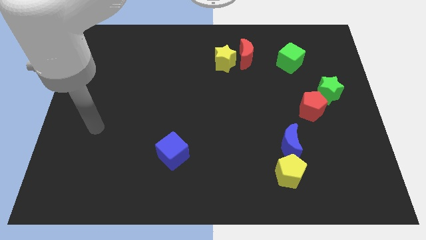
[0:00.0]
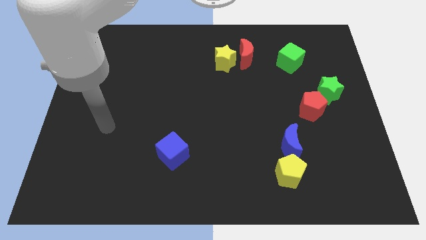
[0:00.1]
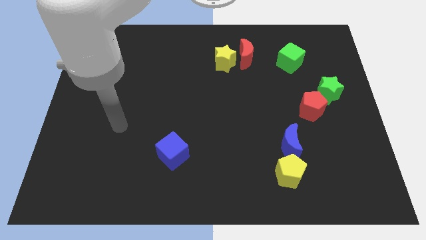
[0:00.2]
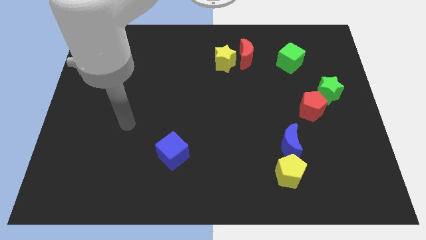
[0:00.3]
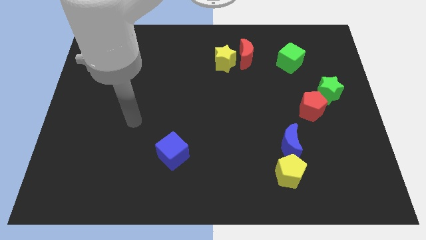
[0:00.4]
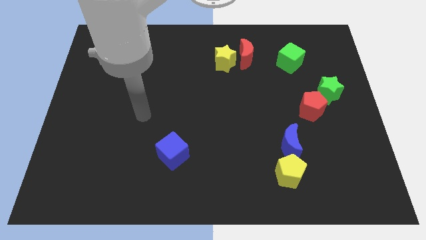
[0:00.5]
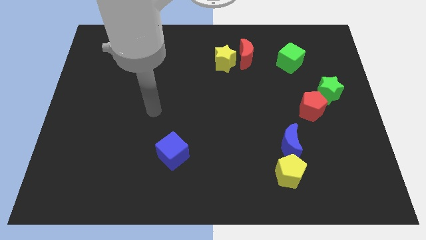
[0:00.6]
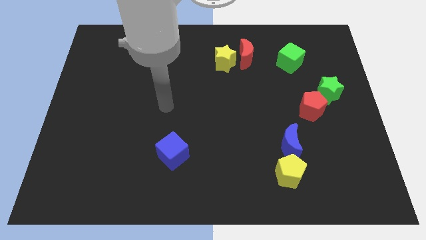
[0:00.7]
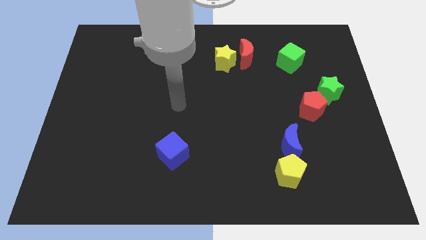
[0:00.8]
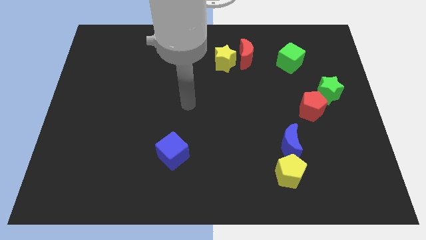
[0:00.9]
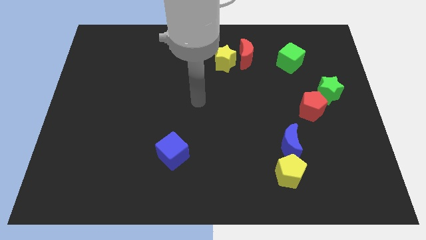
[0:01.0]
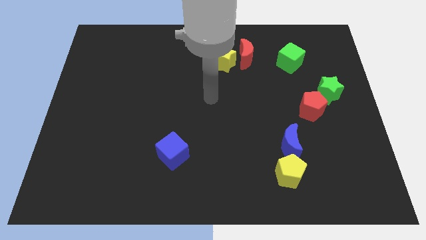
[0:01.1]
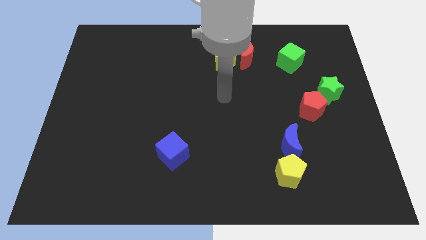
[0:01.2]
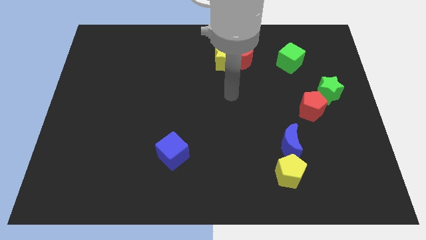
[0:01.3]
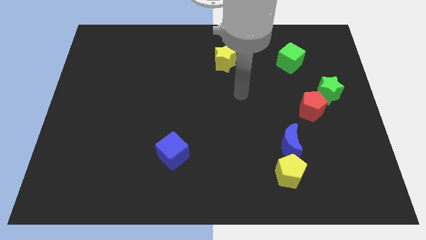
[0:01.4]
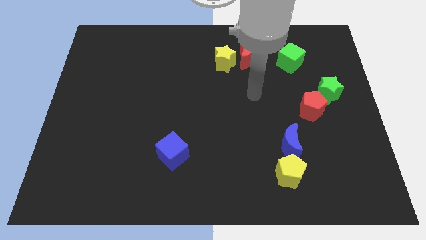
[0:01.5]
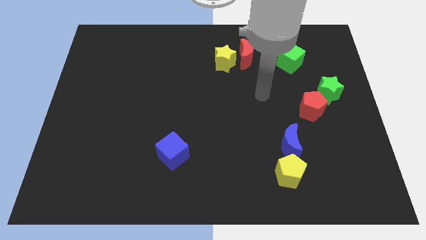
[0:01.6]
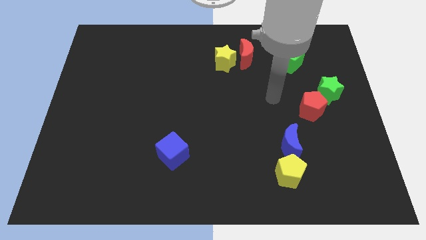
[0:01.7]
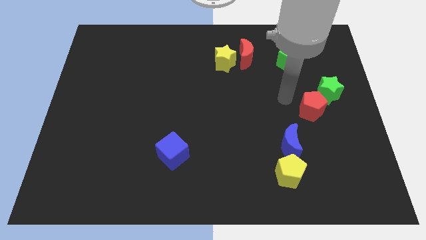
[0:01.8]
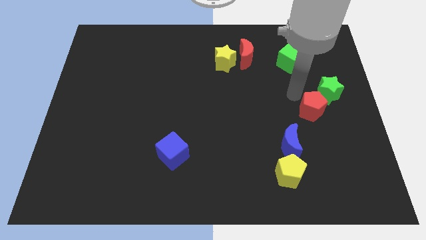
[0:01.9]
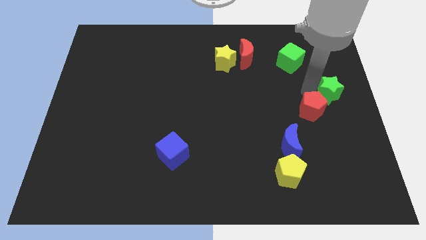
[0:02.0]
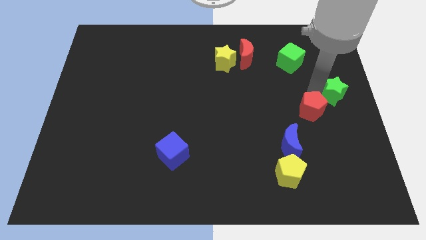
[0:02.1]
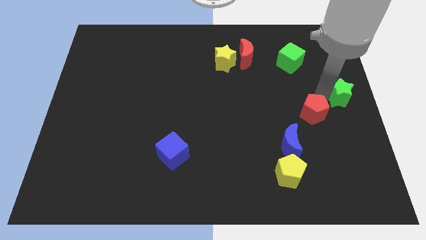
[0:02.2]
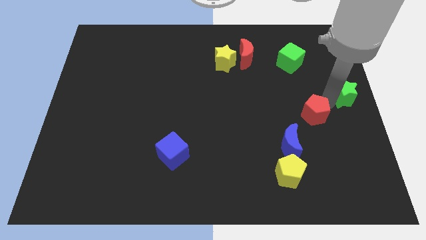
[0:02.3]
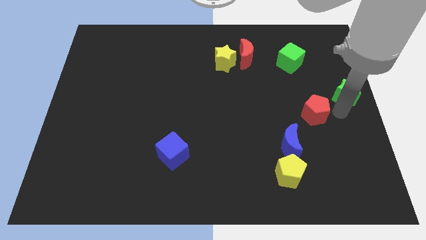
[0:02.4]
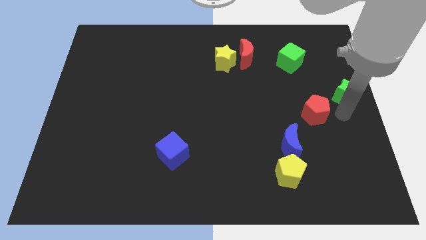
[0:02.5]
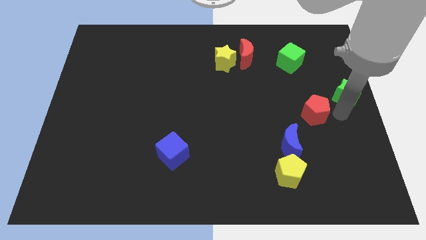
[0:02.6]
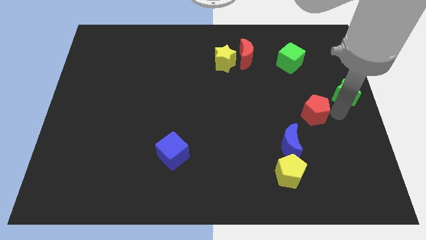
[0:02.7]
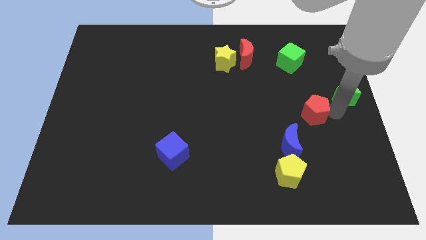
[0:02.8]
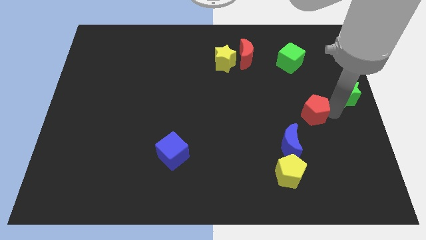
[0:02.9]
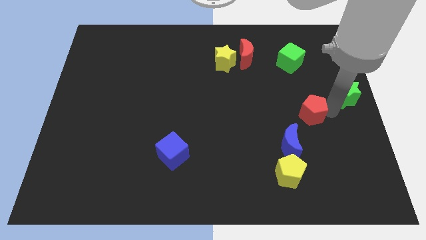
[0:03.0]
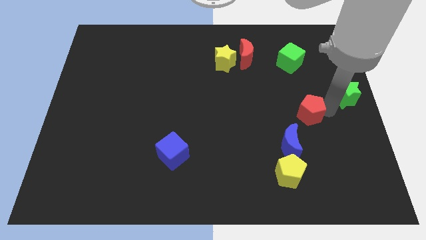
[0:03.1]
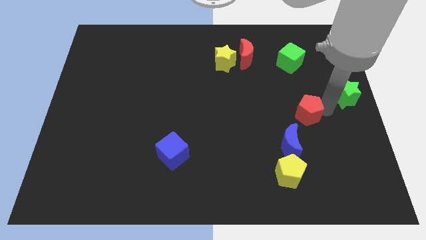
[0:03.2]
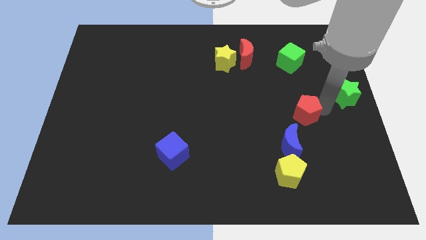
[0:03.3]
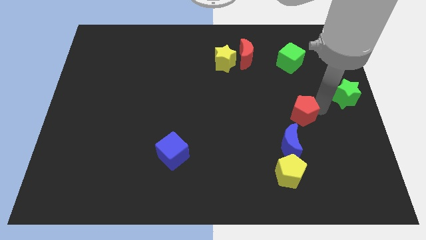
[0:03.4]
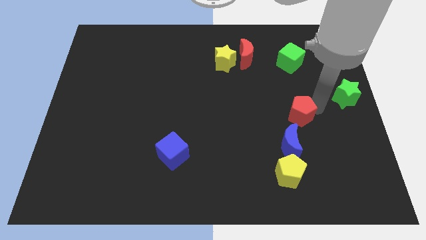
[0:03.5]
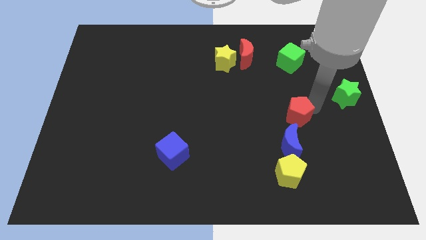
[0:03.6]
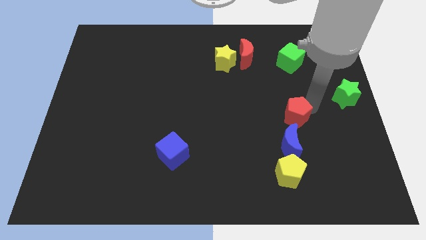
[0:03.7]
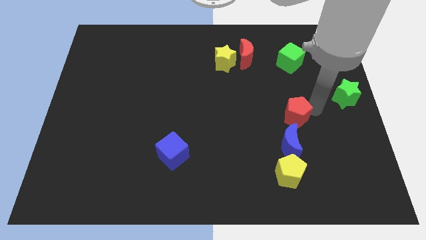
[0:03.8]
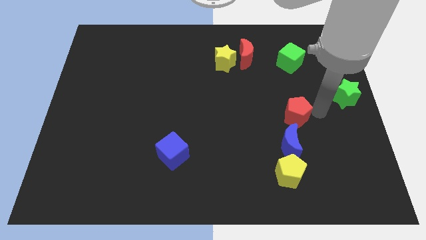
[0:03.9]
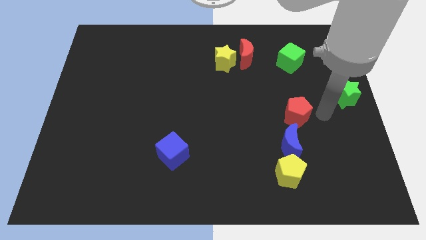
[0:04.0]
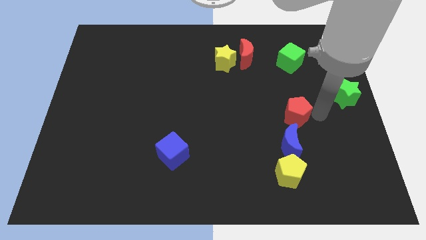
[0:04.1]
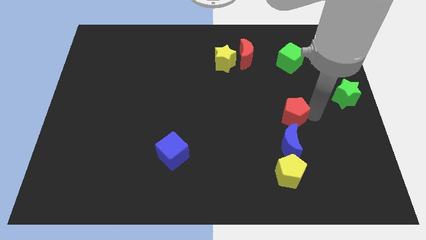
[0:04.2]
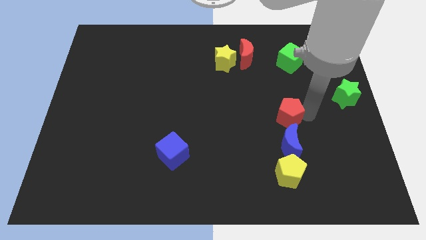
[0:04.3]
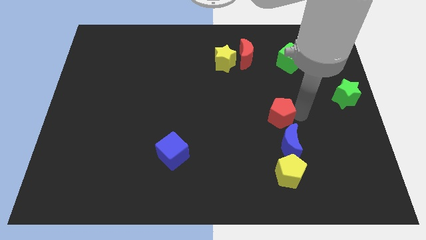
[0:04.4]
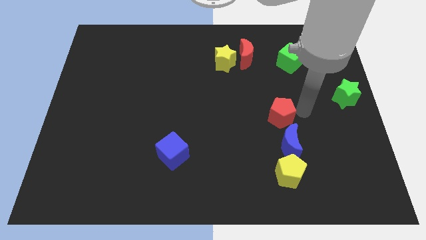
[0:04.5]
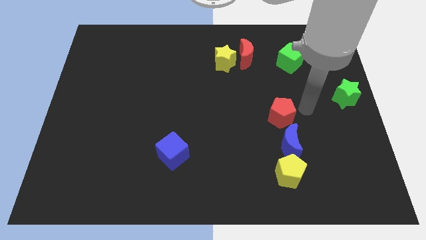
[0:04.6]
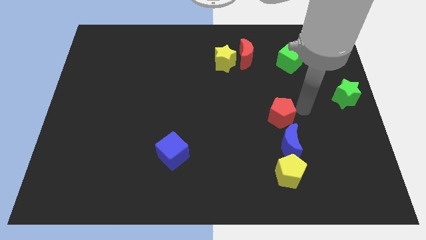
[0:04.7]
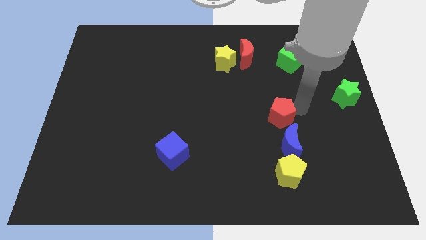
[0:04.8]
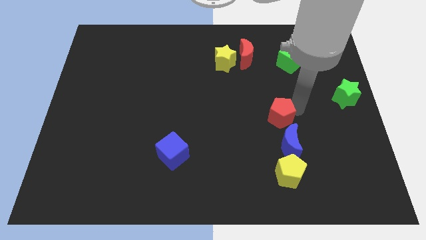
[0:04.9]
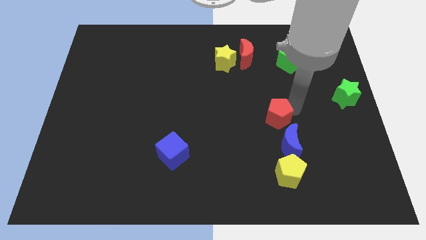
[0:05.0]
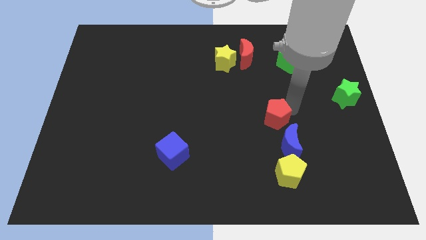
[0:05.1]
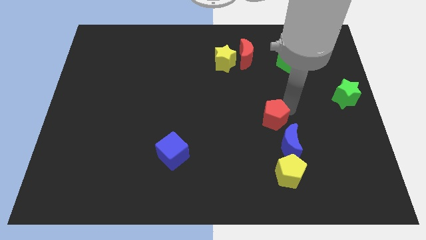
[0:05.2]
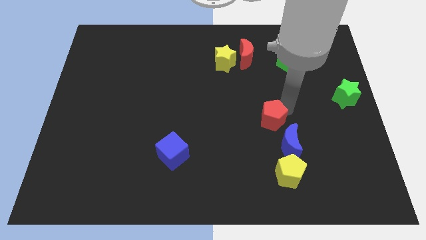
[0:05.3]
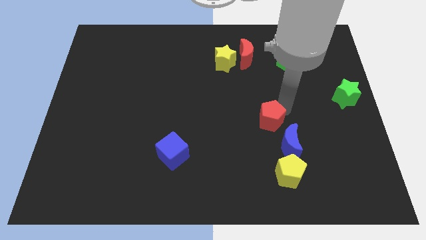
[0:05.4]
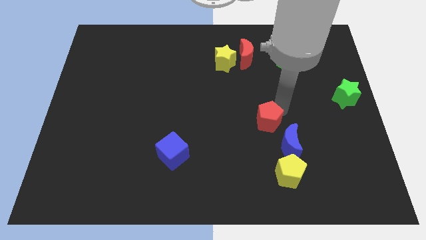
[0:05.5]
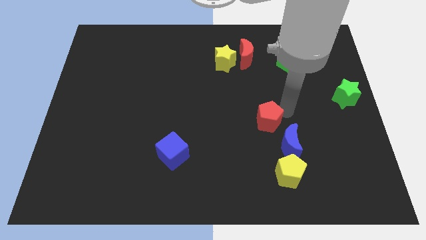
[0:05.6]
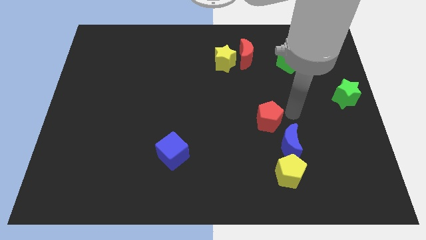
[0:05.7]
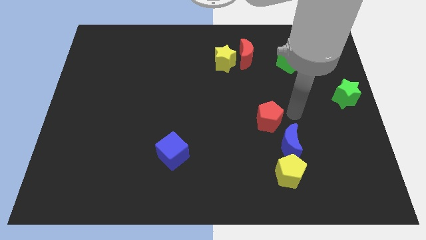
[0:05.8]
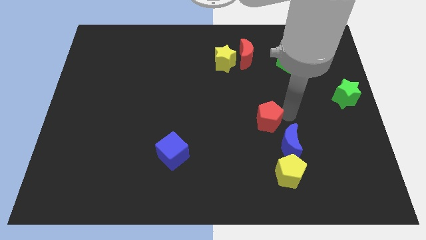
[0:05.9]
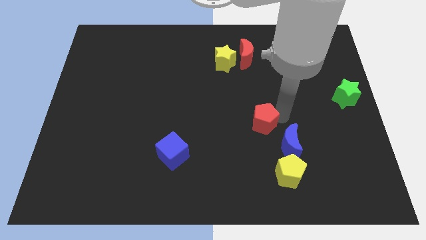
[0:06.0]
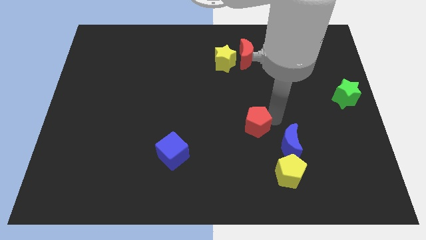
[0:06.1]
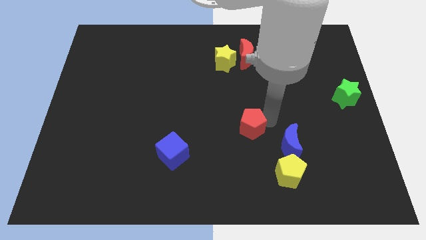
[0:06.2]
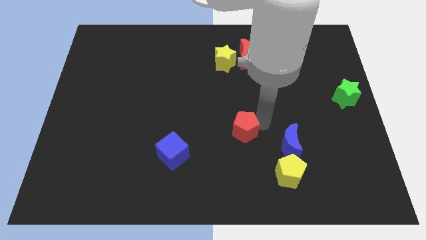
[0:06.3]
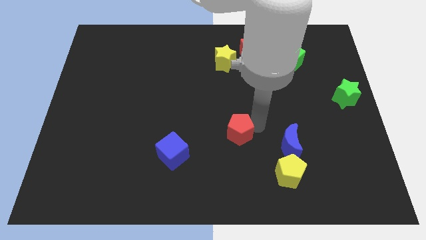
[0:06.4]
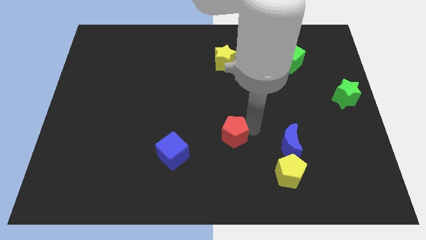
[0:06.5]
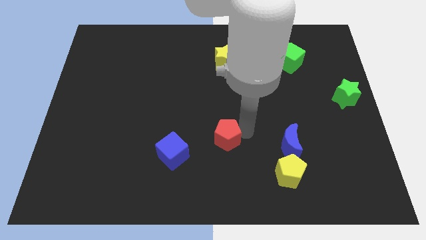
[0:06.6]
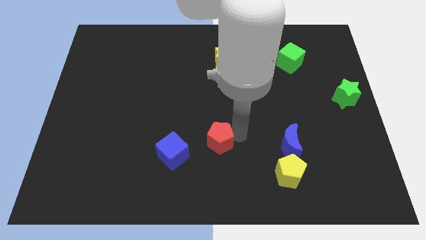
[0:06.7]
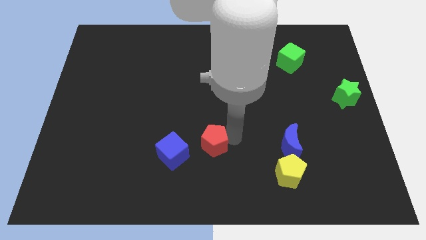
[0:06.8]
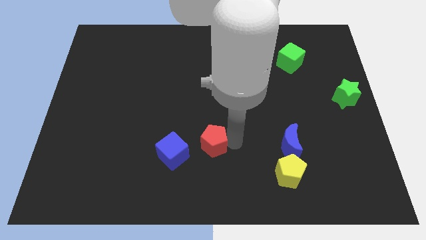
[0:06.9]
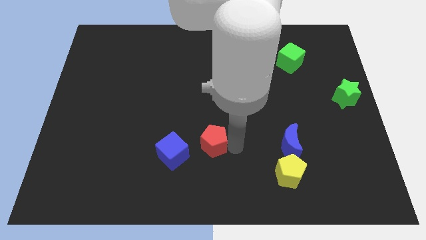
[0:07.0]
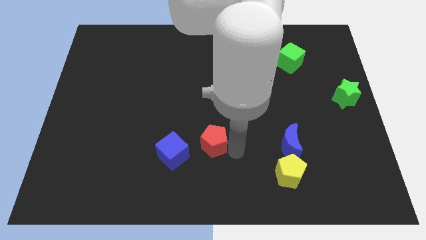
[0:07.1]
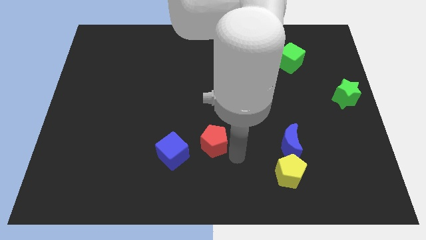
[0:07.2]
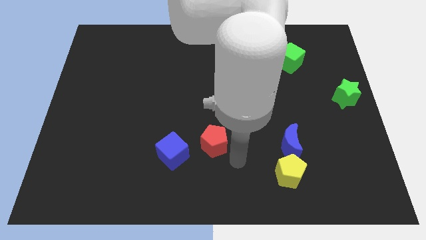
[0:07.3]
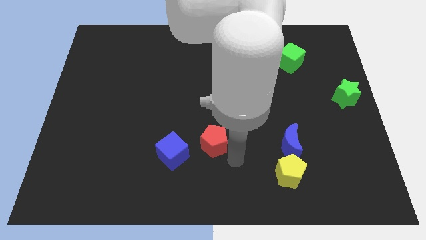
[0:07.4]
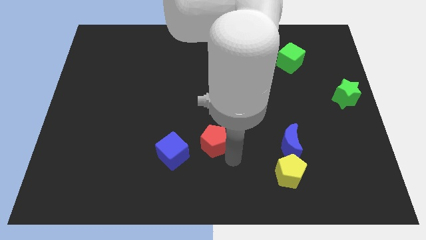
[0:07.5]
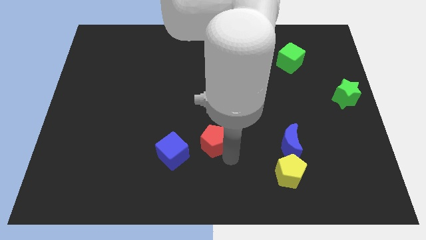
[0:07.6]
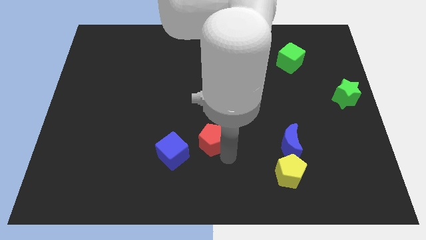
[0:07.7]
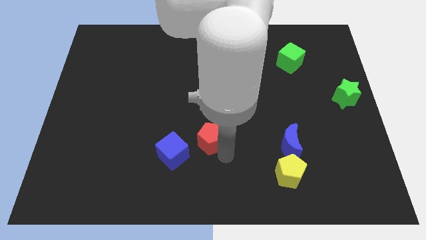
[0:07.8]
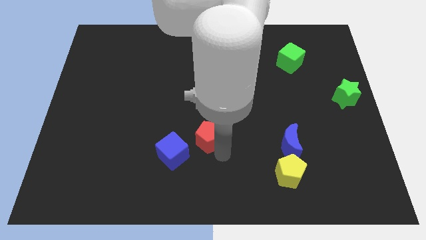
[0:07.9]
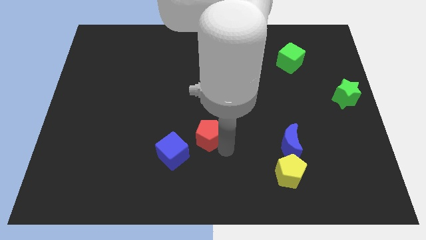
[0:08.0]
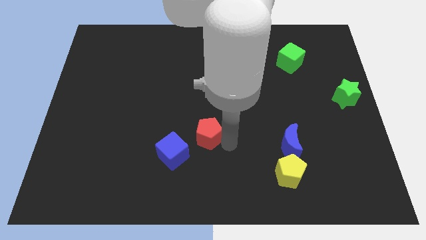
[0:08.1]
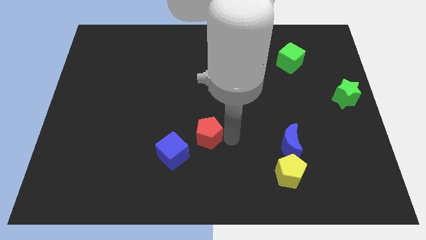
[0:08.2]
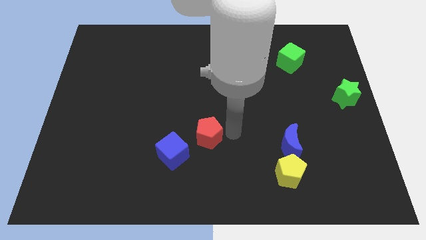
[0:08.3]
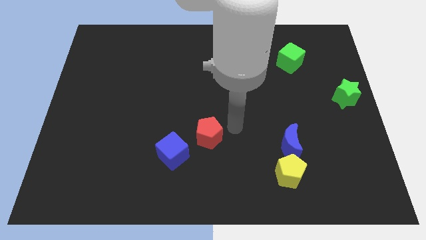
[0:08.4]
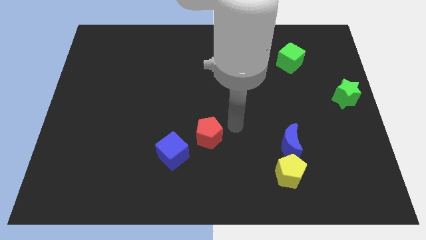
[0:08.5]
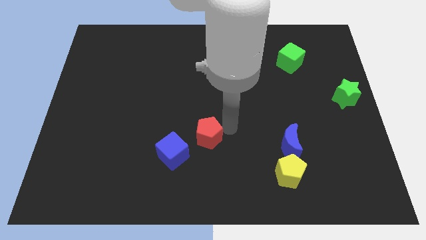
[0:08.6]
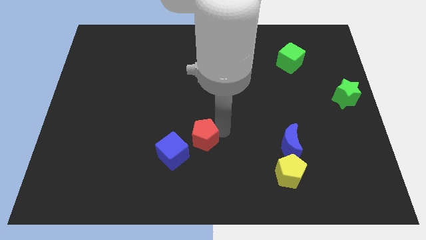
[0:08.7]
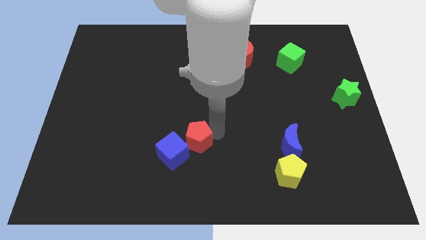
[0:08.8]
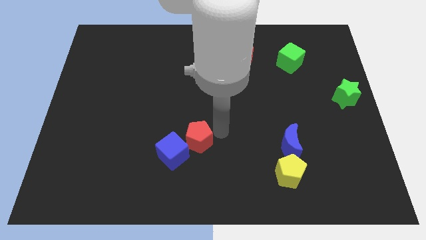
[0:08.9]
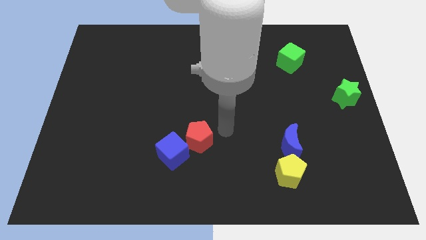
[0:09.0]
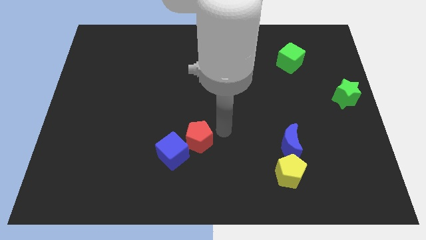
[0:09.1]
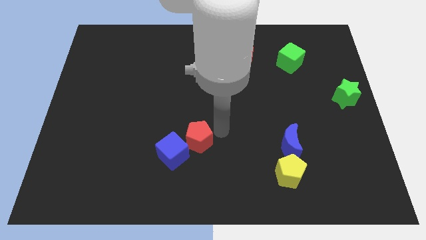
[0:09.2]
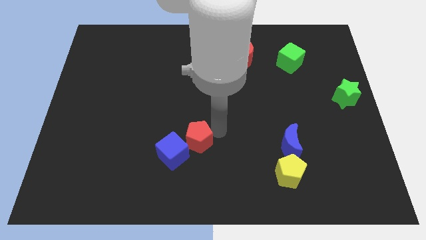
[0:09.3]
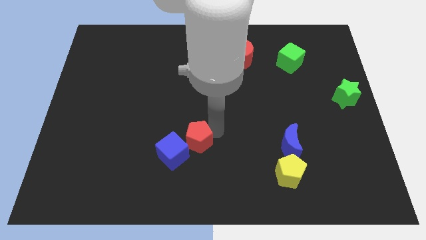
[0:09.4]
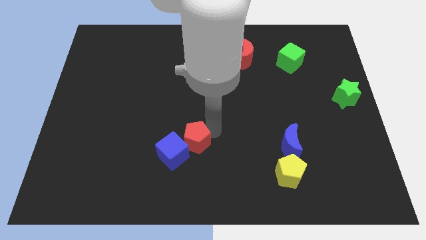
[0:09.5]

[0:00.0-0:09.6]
move the red pentagon towards the blue cube
